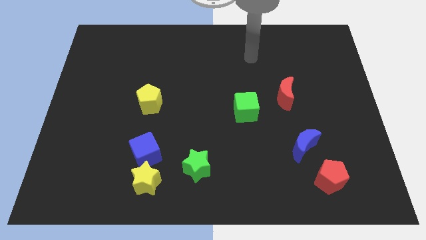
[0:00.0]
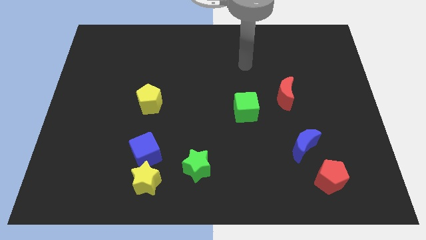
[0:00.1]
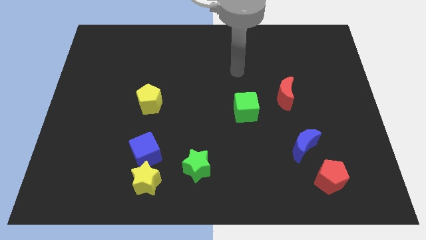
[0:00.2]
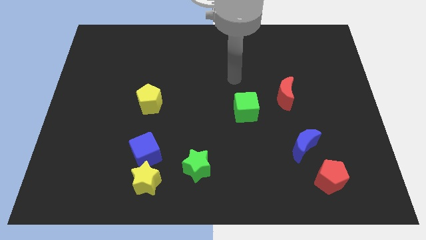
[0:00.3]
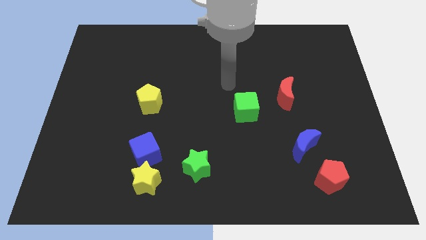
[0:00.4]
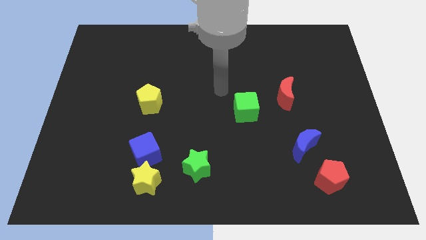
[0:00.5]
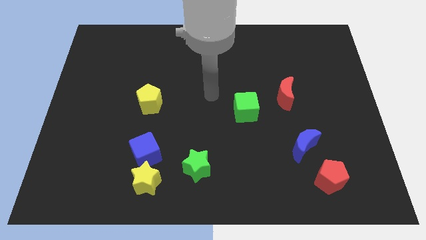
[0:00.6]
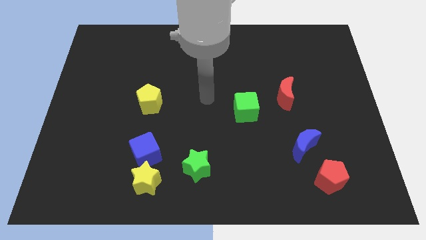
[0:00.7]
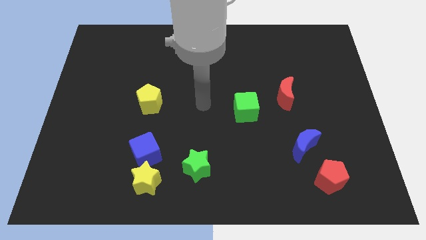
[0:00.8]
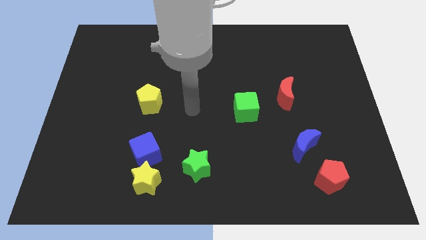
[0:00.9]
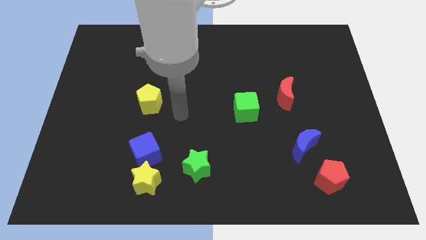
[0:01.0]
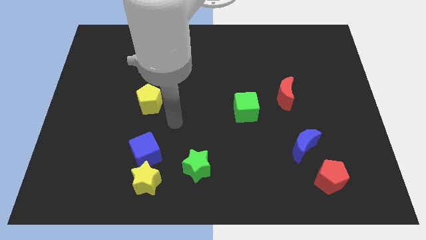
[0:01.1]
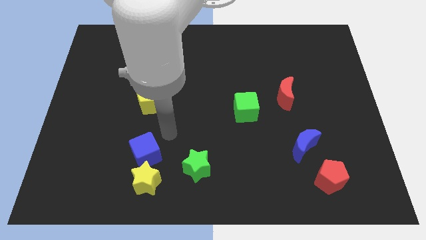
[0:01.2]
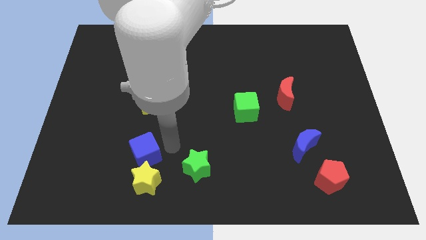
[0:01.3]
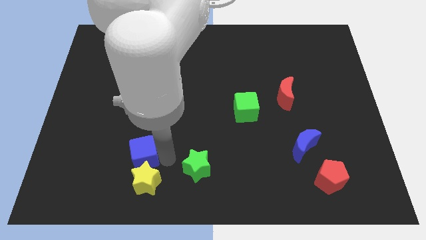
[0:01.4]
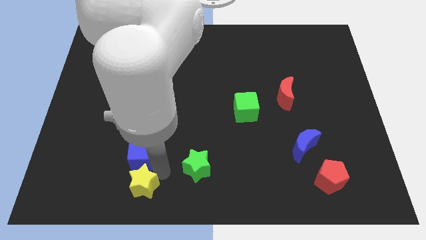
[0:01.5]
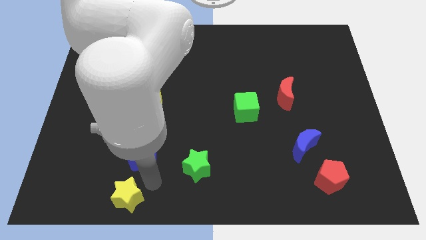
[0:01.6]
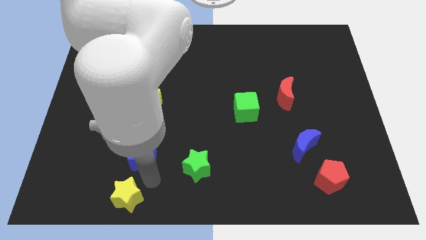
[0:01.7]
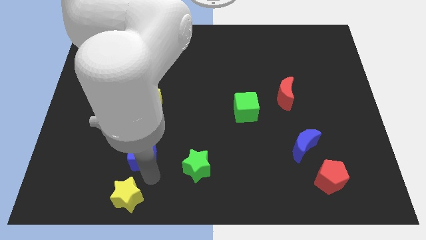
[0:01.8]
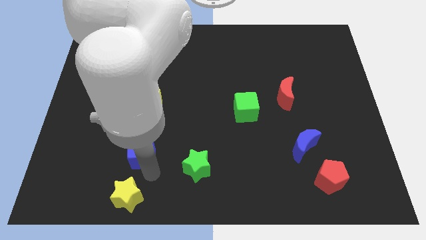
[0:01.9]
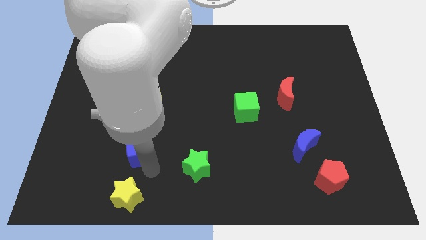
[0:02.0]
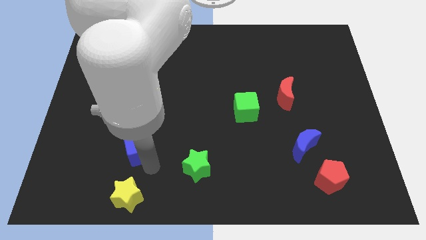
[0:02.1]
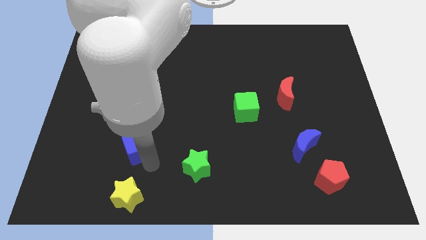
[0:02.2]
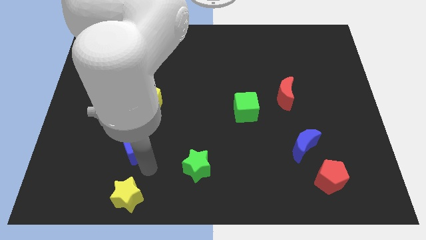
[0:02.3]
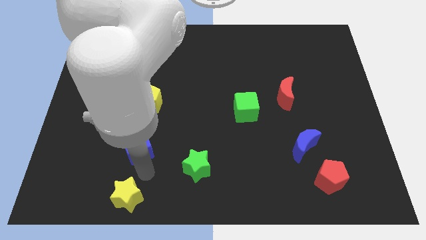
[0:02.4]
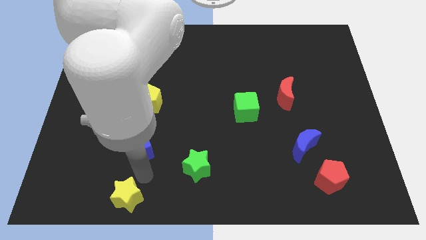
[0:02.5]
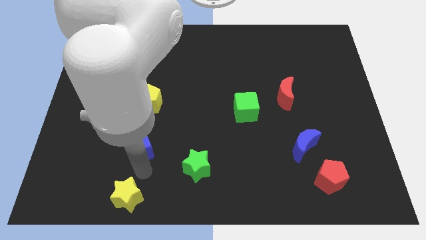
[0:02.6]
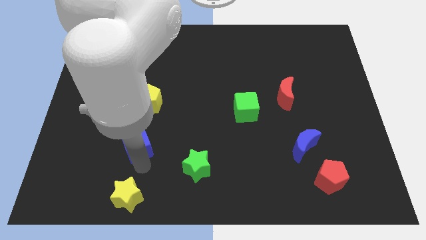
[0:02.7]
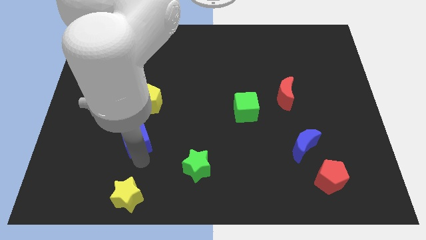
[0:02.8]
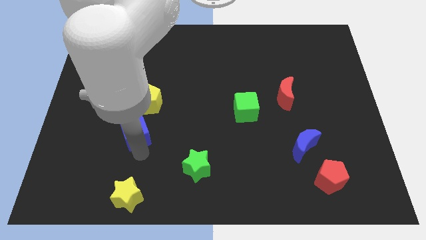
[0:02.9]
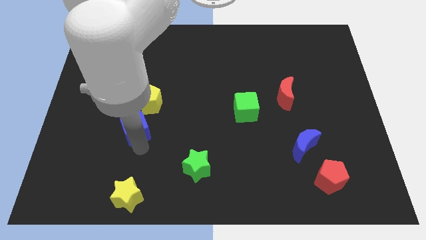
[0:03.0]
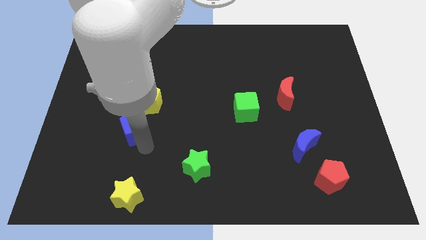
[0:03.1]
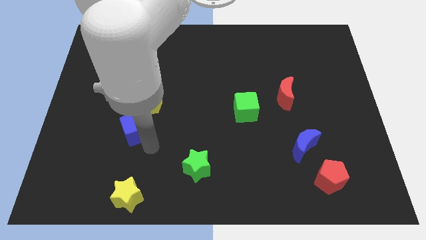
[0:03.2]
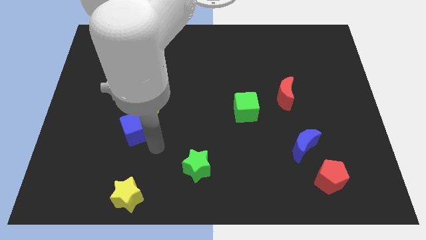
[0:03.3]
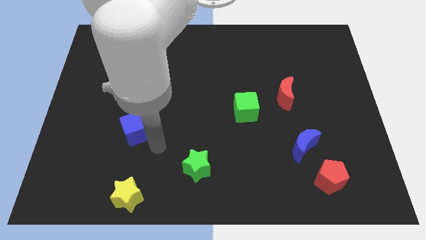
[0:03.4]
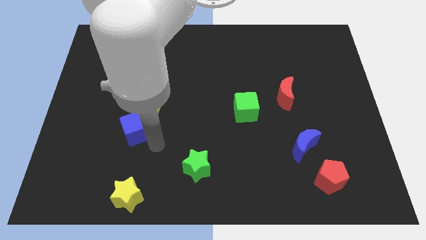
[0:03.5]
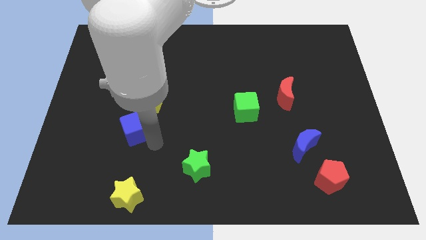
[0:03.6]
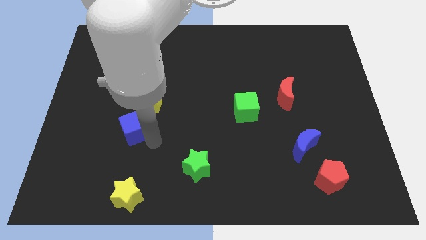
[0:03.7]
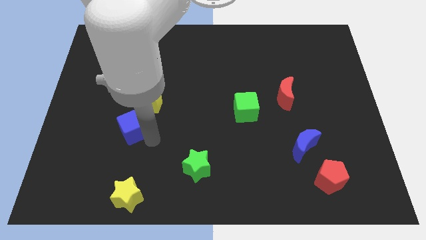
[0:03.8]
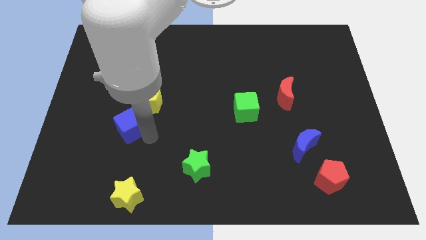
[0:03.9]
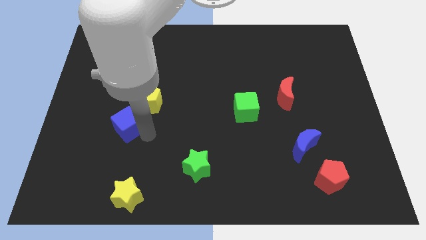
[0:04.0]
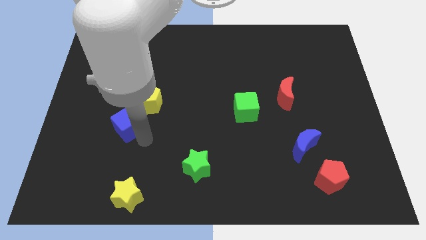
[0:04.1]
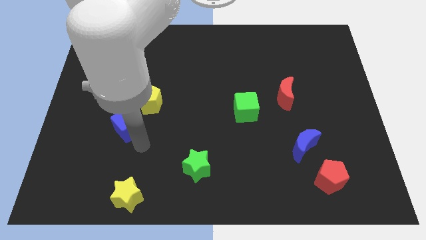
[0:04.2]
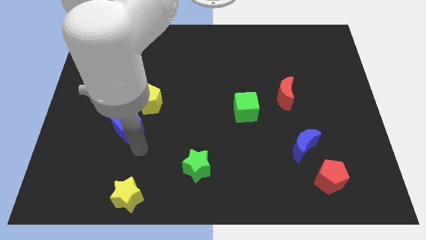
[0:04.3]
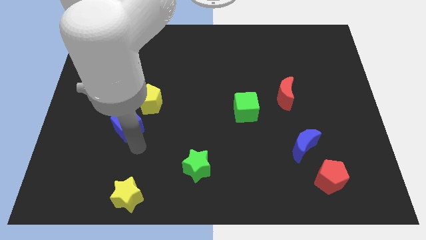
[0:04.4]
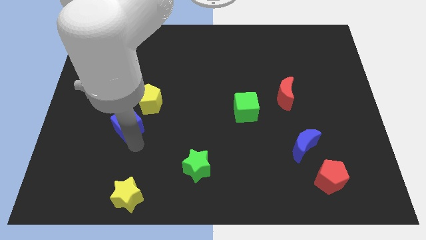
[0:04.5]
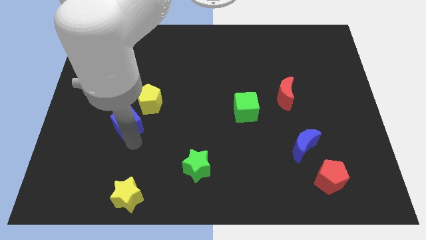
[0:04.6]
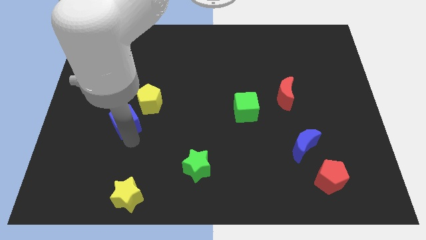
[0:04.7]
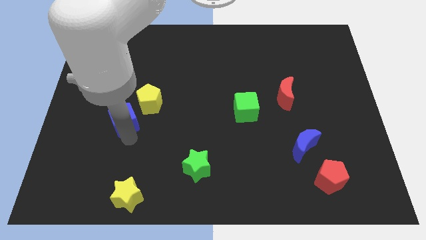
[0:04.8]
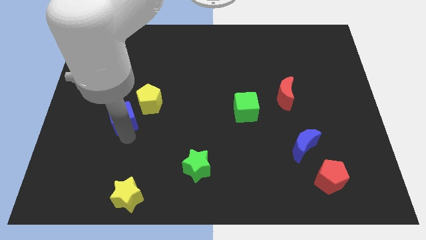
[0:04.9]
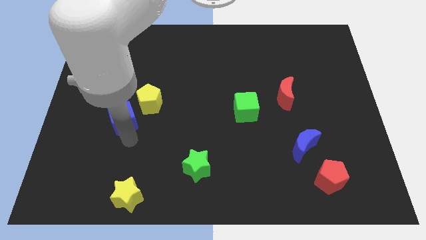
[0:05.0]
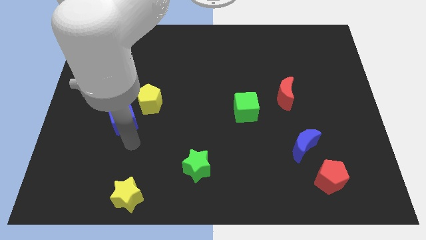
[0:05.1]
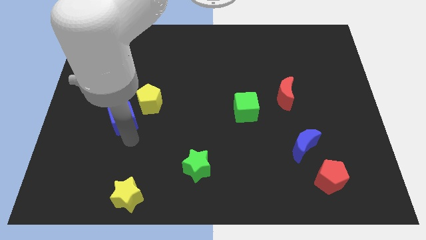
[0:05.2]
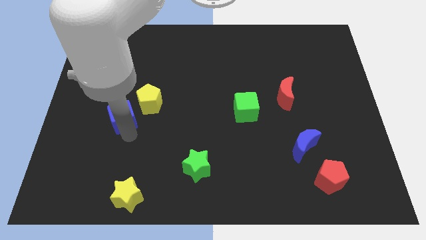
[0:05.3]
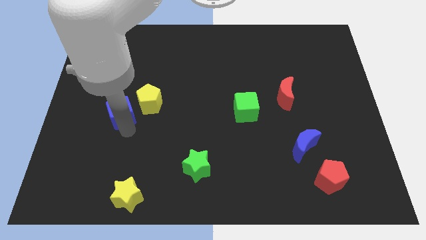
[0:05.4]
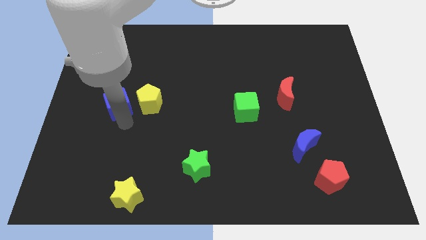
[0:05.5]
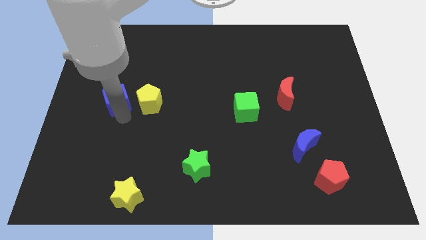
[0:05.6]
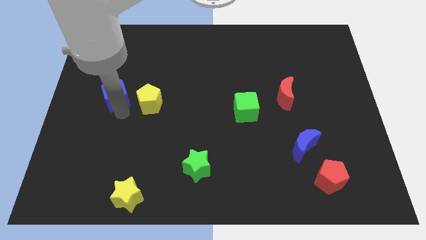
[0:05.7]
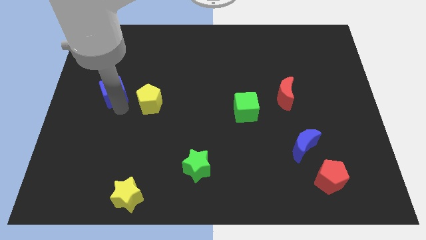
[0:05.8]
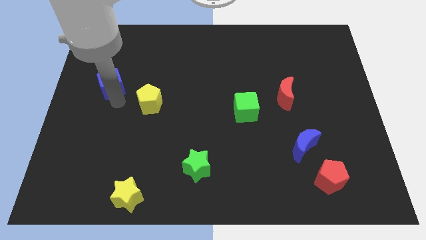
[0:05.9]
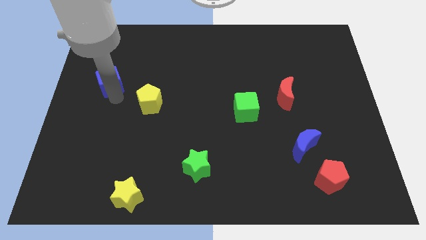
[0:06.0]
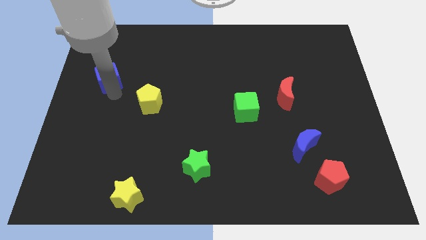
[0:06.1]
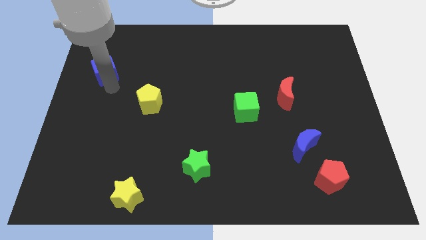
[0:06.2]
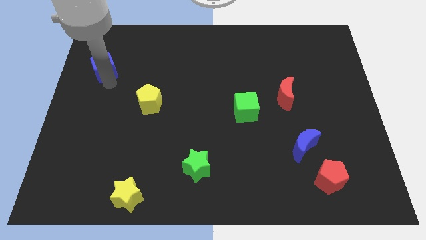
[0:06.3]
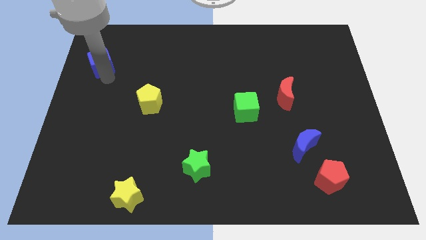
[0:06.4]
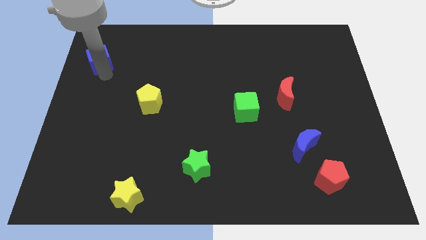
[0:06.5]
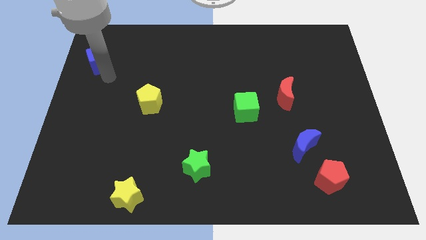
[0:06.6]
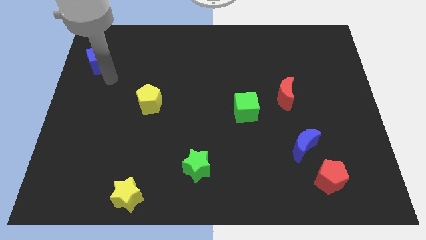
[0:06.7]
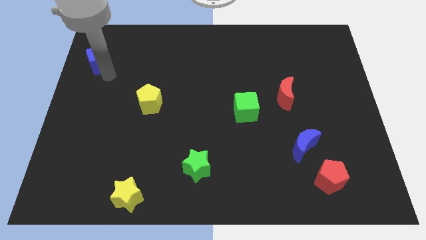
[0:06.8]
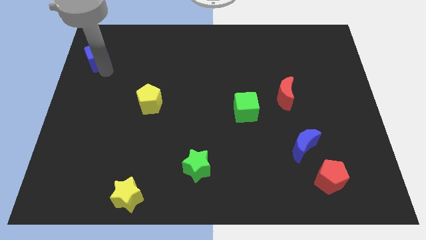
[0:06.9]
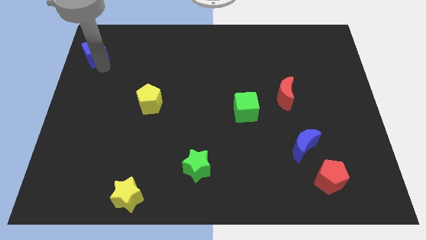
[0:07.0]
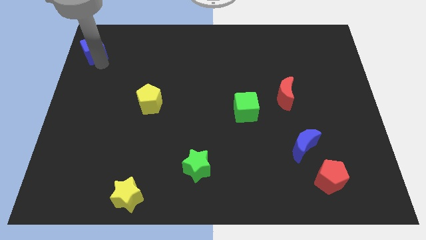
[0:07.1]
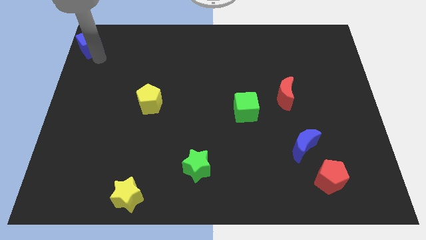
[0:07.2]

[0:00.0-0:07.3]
push the blue cube to the upper left corner

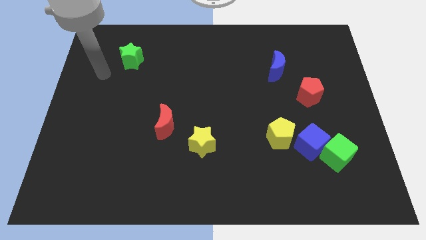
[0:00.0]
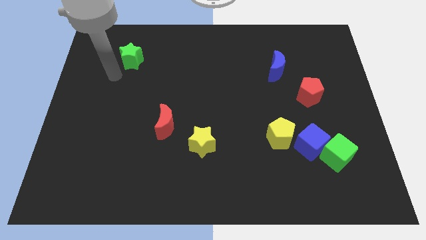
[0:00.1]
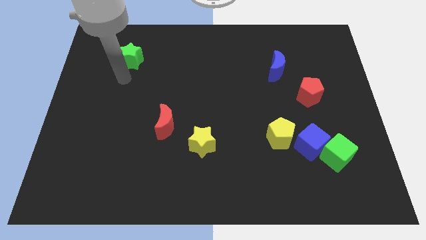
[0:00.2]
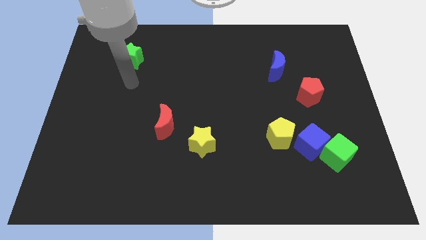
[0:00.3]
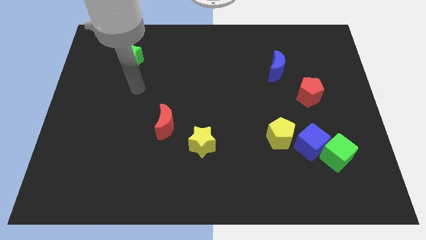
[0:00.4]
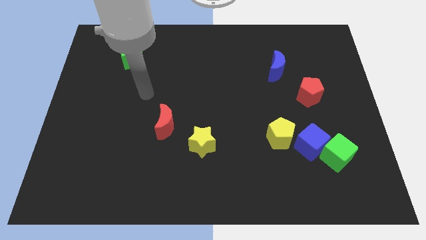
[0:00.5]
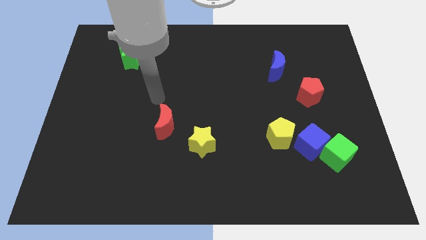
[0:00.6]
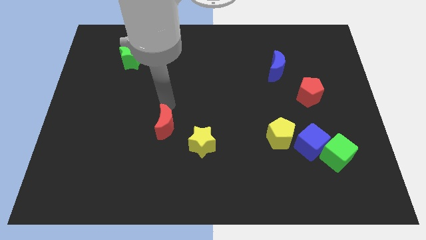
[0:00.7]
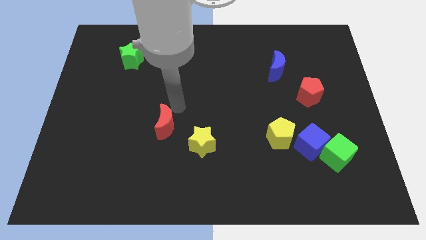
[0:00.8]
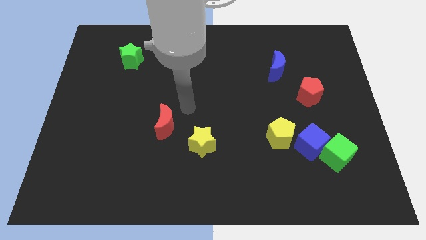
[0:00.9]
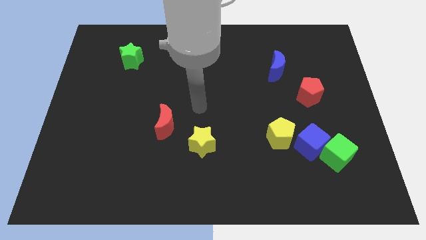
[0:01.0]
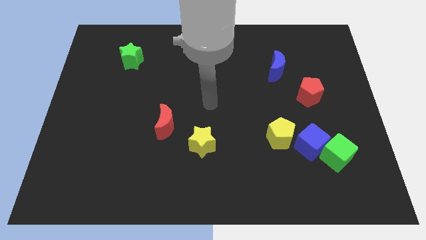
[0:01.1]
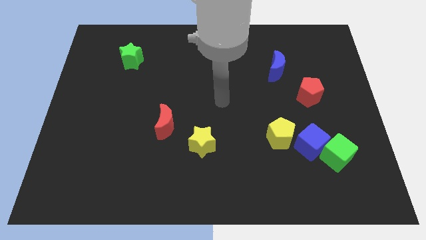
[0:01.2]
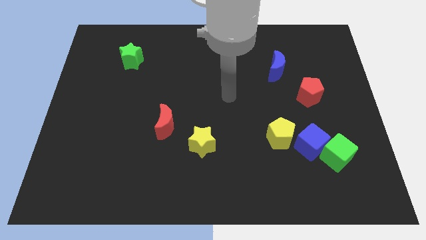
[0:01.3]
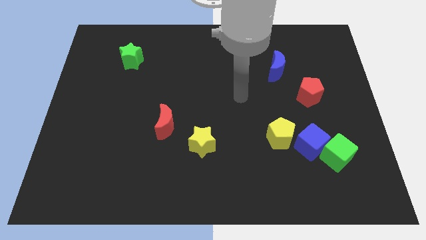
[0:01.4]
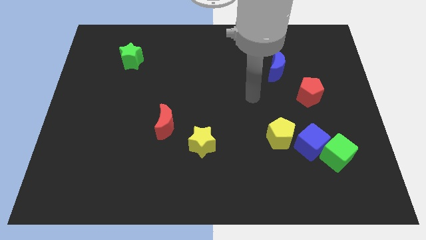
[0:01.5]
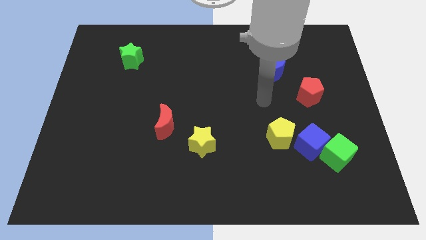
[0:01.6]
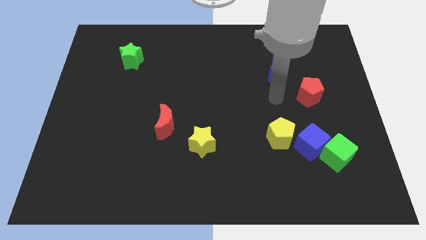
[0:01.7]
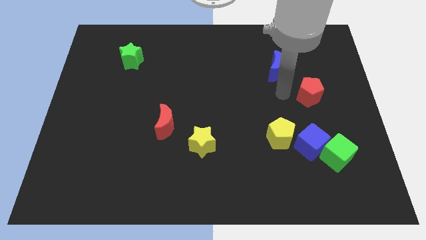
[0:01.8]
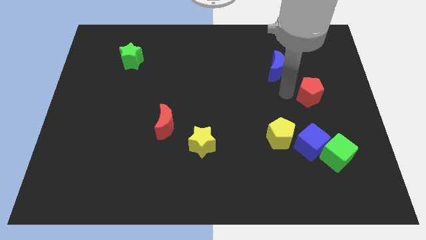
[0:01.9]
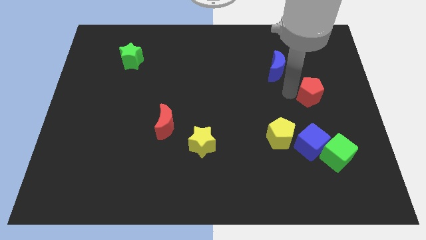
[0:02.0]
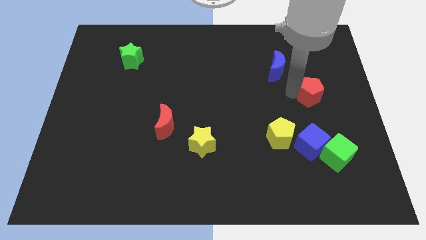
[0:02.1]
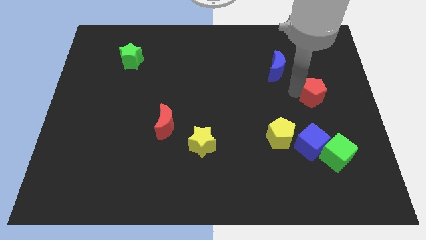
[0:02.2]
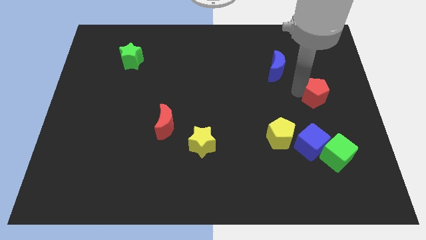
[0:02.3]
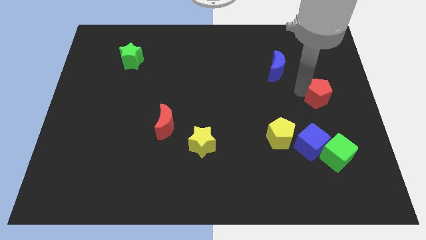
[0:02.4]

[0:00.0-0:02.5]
slide the red pentagon to the right side
